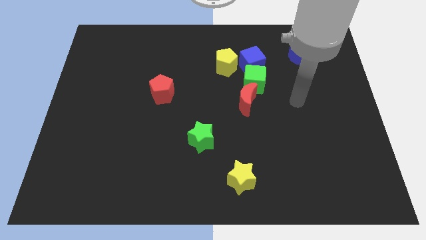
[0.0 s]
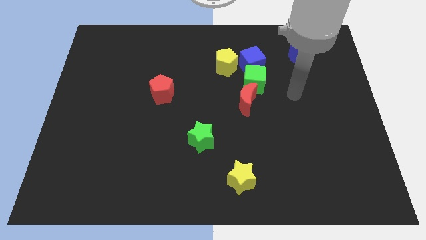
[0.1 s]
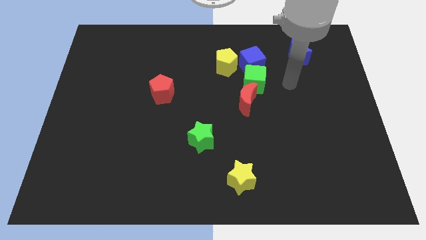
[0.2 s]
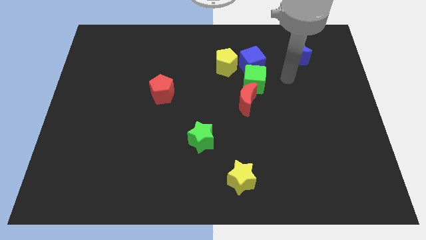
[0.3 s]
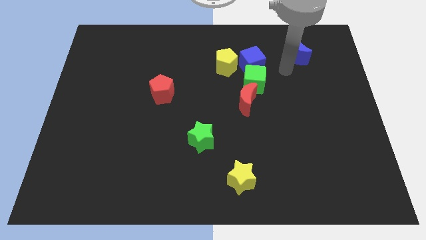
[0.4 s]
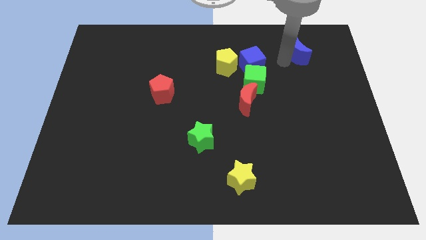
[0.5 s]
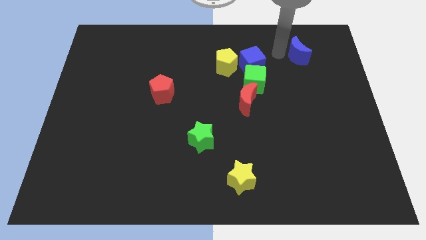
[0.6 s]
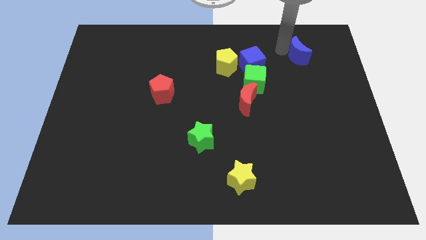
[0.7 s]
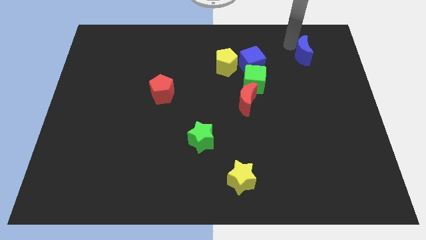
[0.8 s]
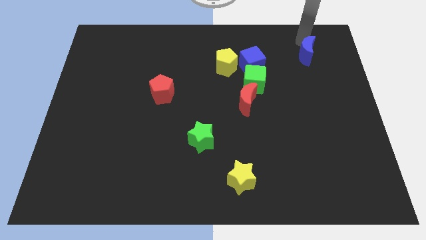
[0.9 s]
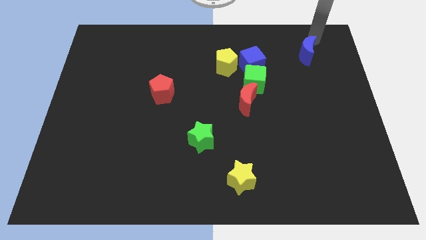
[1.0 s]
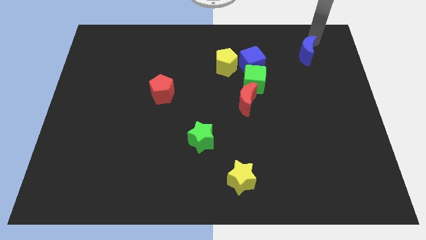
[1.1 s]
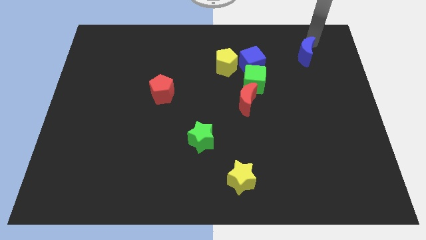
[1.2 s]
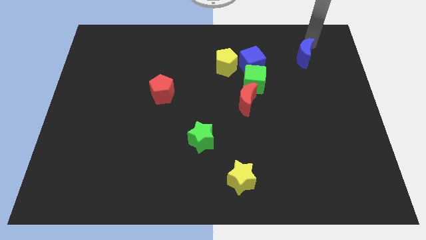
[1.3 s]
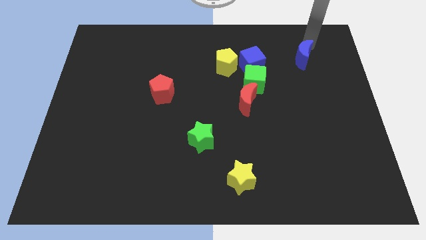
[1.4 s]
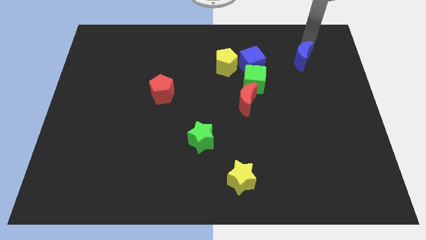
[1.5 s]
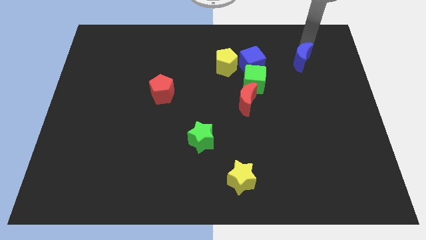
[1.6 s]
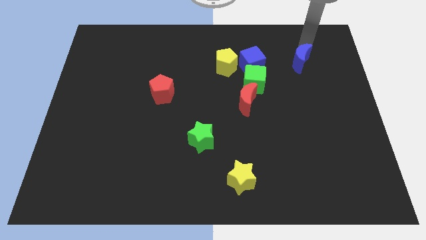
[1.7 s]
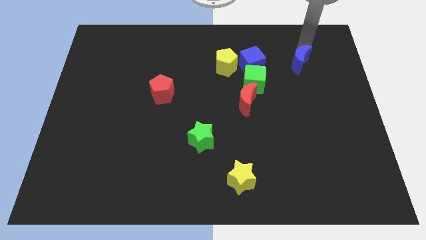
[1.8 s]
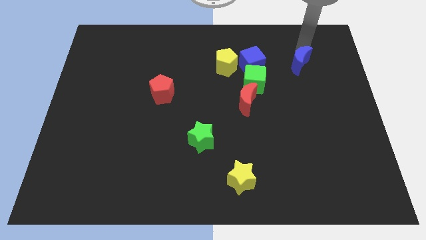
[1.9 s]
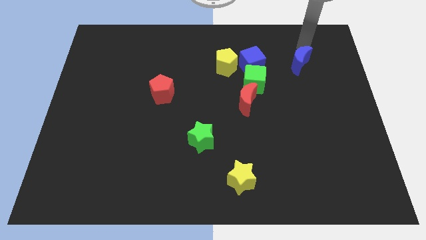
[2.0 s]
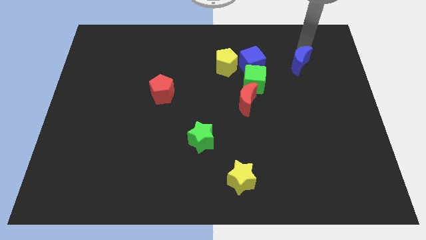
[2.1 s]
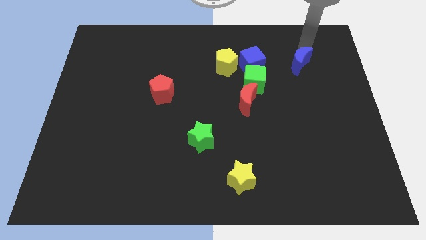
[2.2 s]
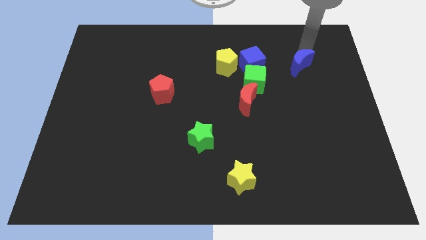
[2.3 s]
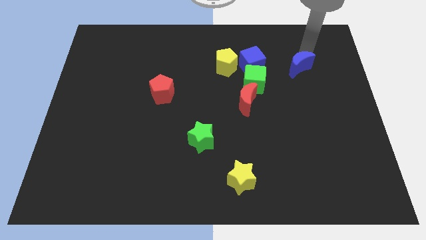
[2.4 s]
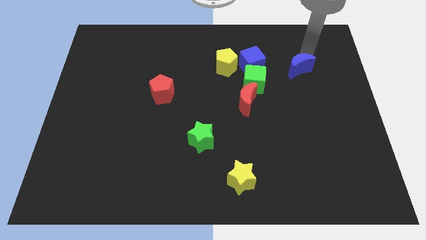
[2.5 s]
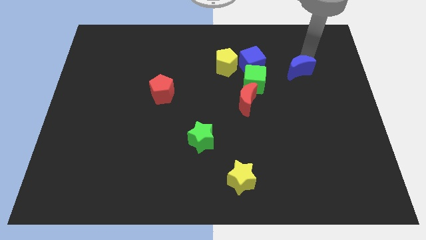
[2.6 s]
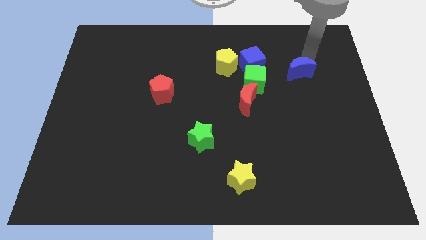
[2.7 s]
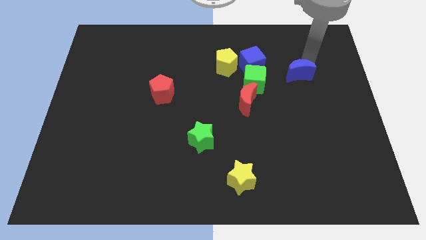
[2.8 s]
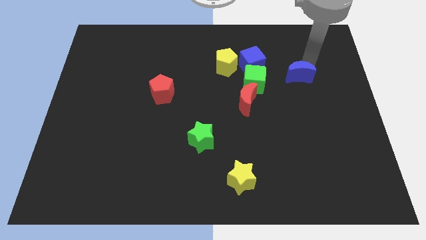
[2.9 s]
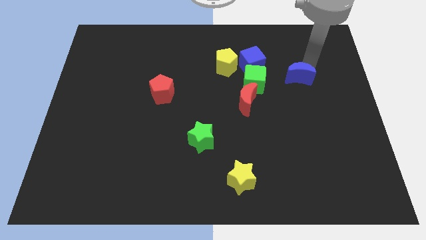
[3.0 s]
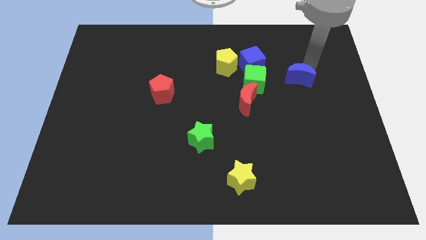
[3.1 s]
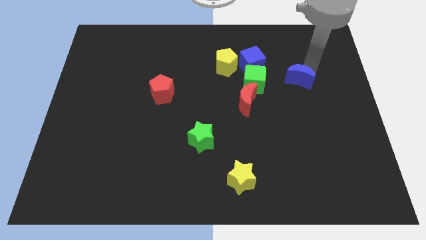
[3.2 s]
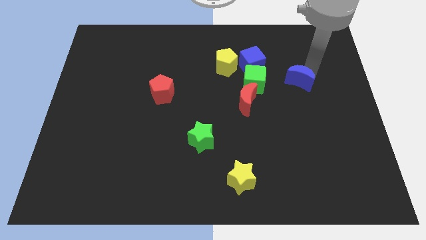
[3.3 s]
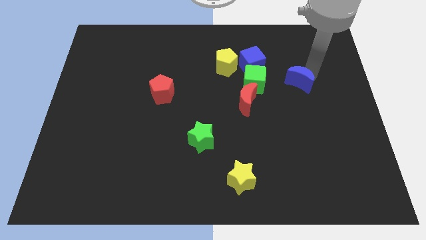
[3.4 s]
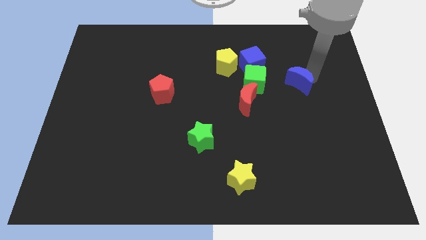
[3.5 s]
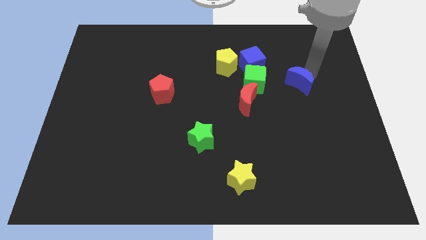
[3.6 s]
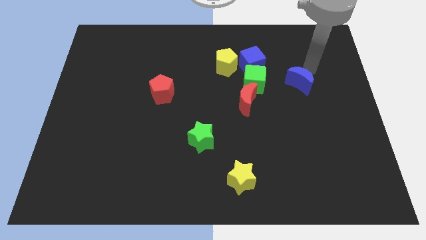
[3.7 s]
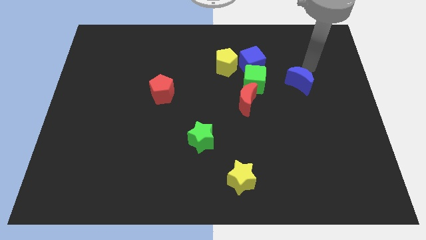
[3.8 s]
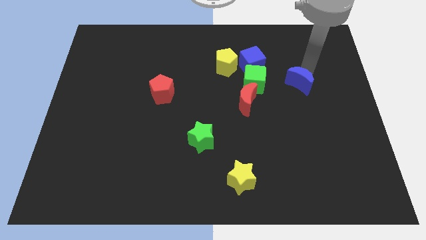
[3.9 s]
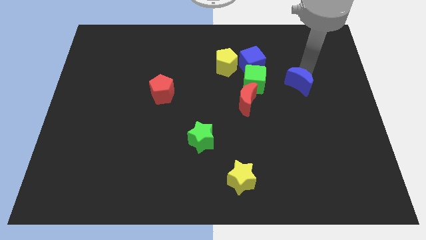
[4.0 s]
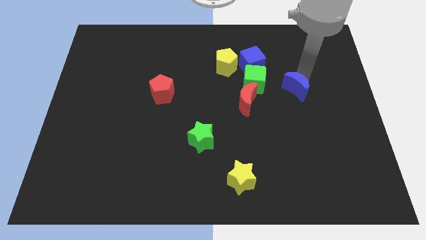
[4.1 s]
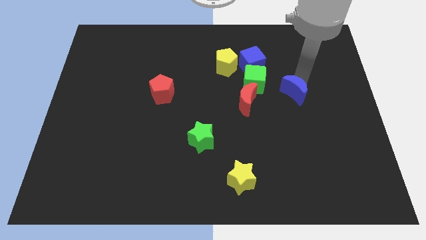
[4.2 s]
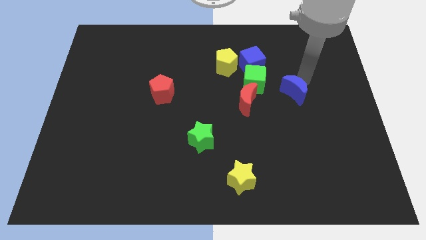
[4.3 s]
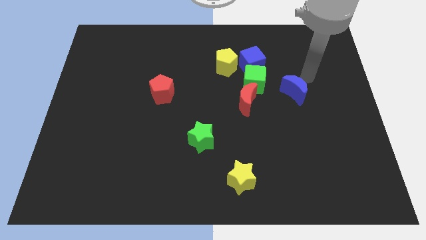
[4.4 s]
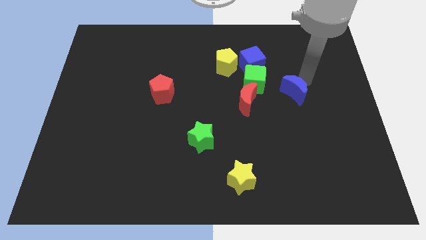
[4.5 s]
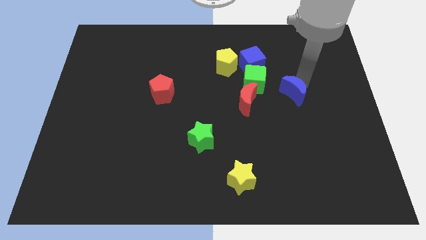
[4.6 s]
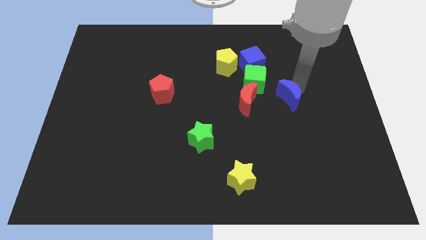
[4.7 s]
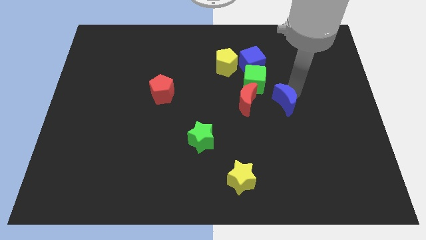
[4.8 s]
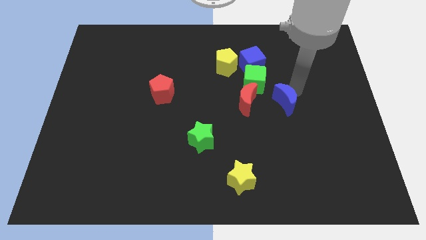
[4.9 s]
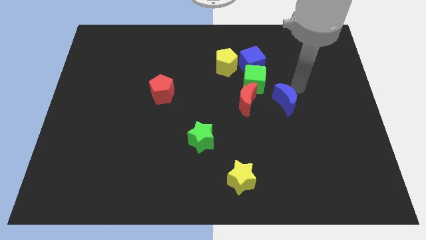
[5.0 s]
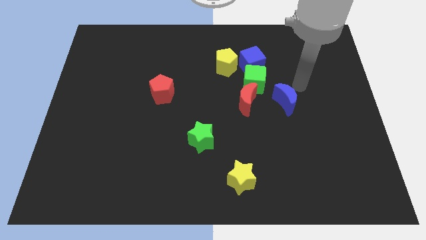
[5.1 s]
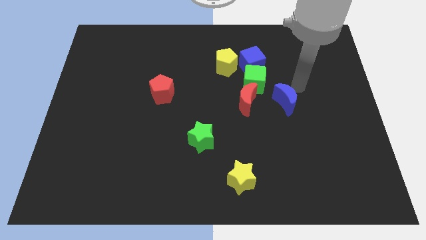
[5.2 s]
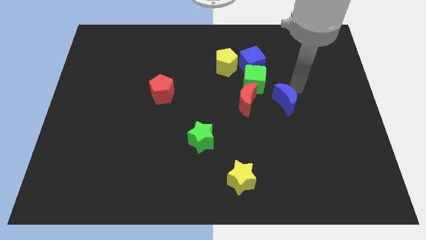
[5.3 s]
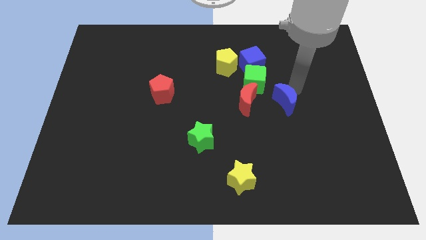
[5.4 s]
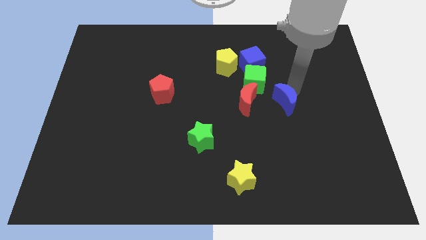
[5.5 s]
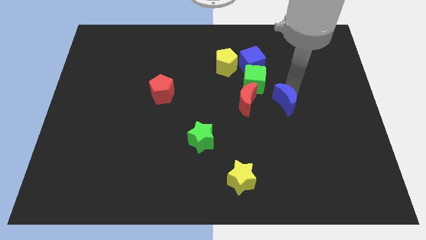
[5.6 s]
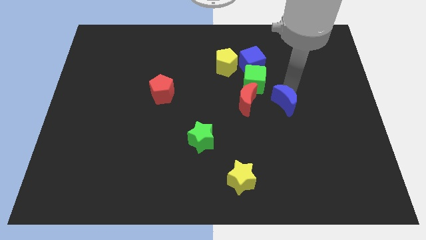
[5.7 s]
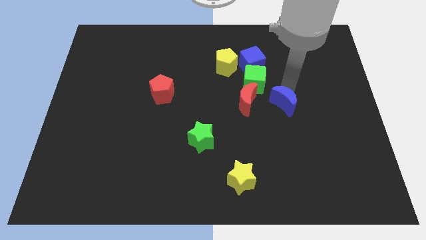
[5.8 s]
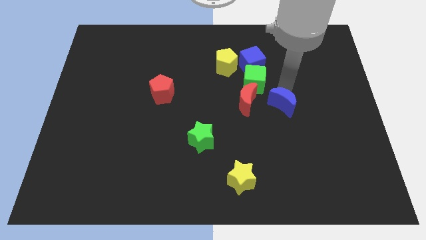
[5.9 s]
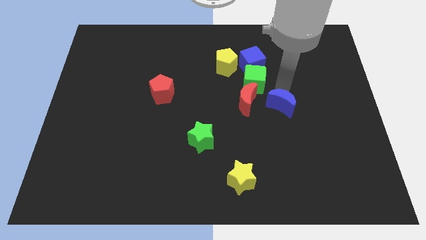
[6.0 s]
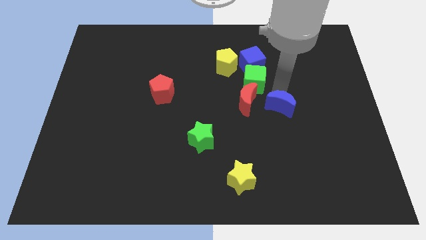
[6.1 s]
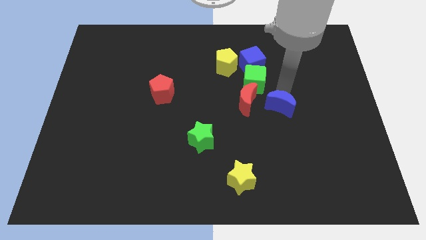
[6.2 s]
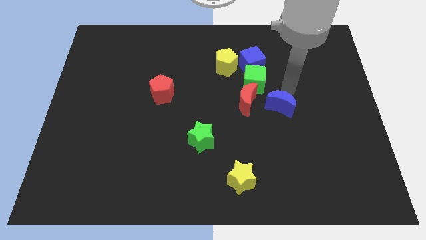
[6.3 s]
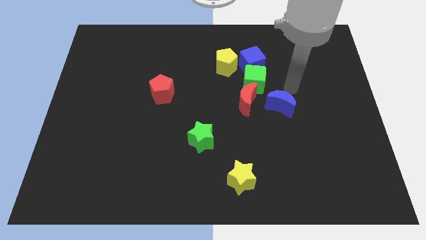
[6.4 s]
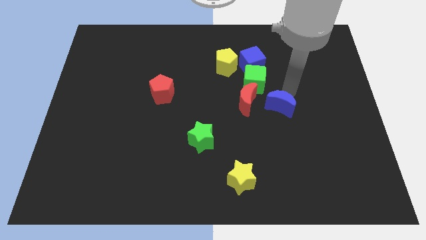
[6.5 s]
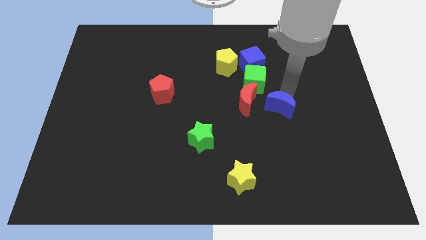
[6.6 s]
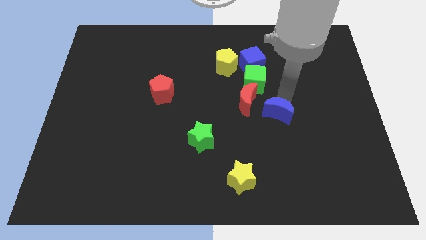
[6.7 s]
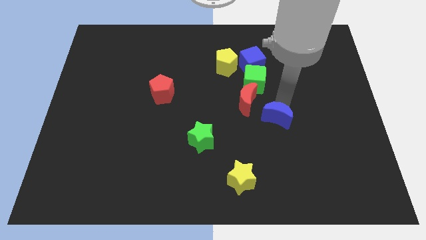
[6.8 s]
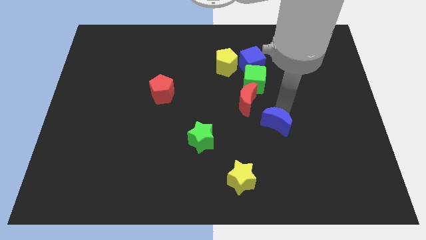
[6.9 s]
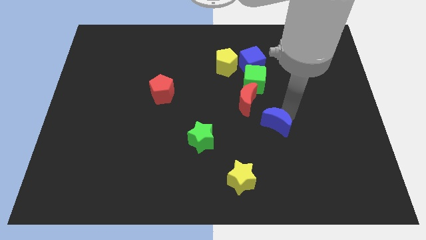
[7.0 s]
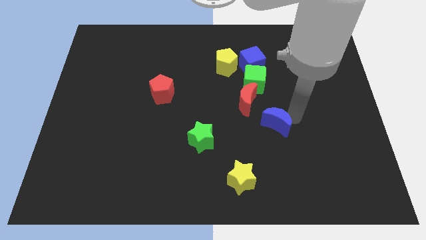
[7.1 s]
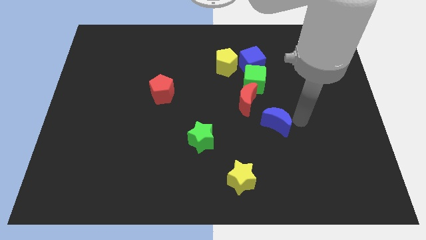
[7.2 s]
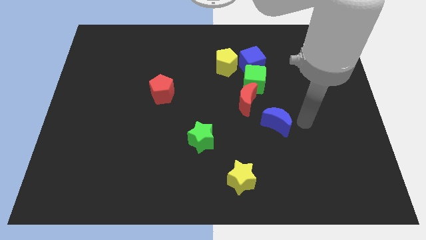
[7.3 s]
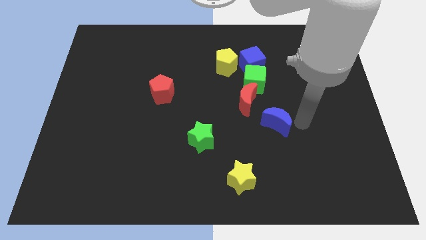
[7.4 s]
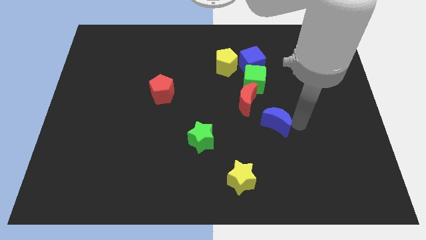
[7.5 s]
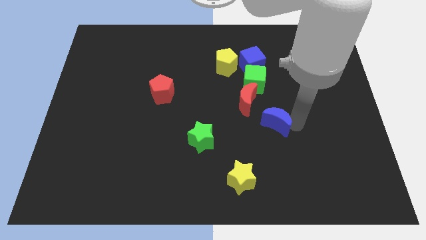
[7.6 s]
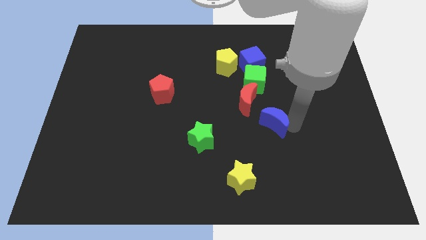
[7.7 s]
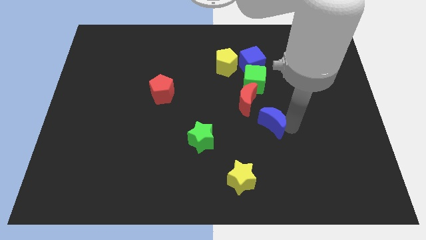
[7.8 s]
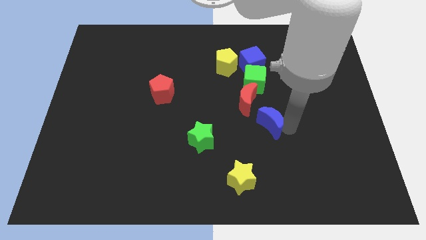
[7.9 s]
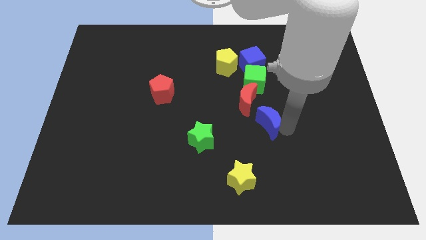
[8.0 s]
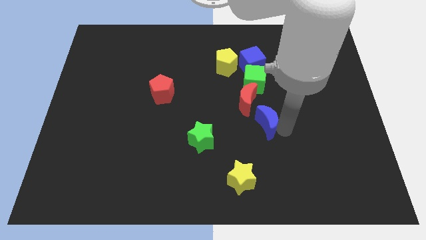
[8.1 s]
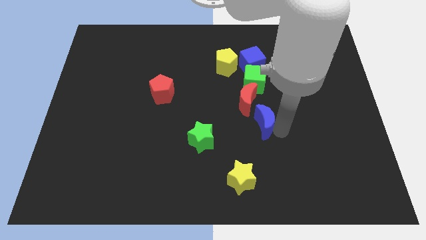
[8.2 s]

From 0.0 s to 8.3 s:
move the blue moon downwards and to the left diagonally
